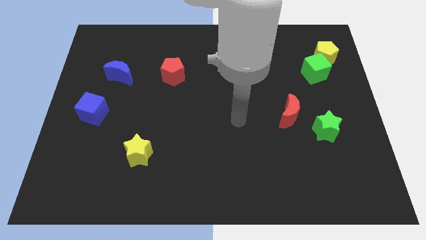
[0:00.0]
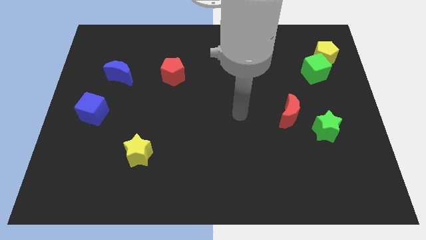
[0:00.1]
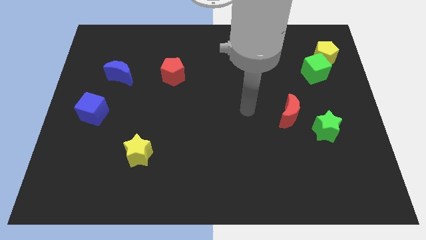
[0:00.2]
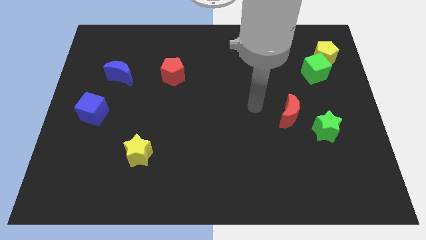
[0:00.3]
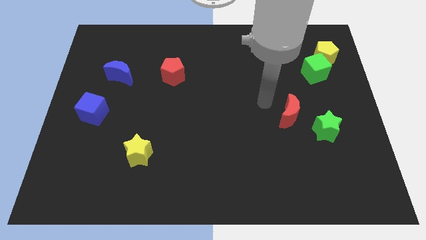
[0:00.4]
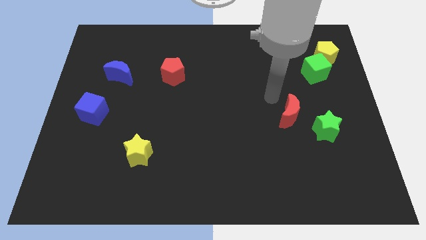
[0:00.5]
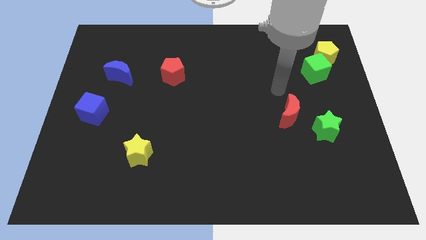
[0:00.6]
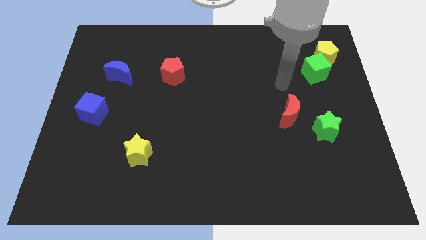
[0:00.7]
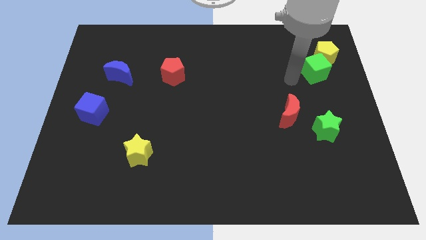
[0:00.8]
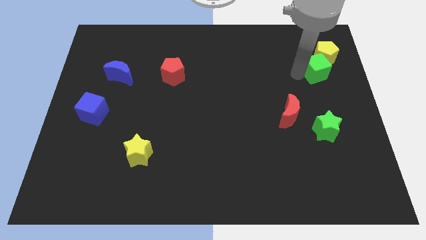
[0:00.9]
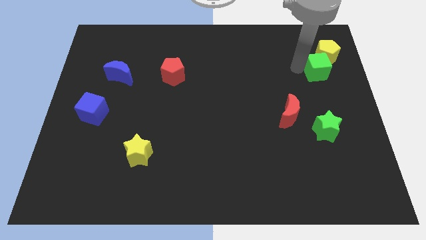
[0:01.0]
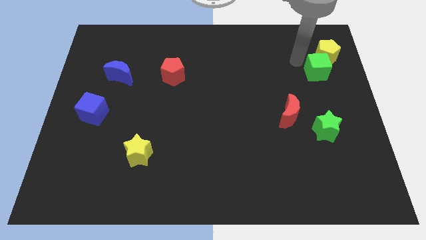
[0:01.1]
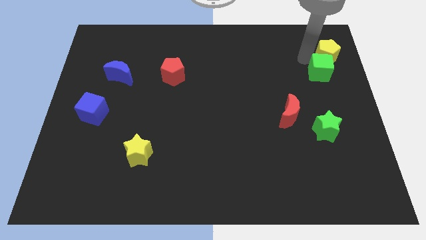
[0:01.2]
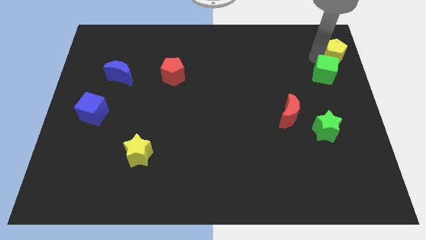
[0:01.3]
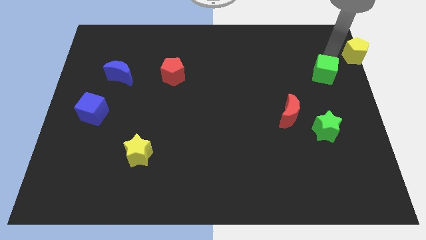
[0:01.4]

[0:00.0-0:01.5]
separate the green cube from the yellow pentagon

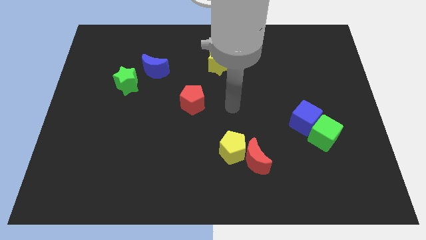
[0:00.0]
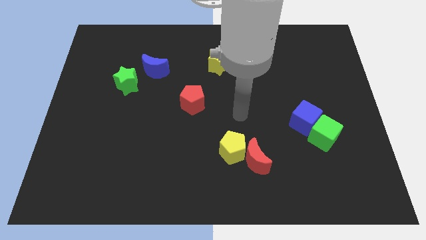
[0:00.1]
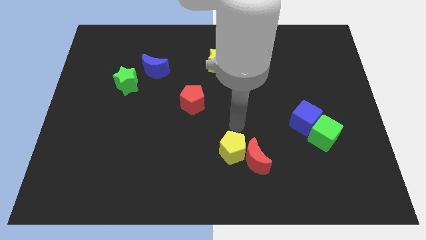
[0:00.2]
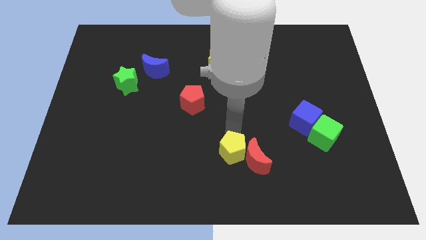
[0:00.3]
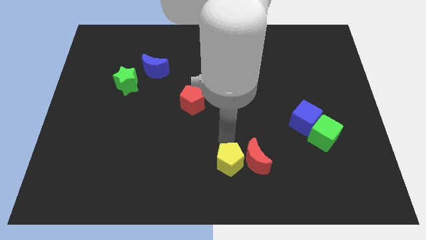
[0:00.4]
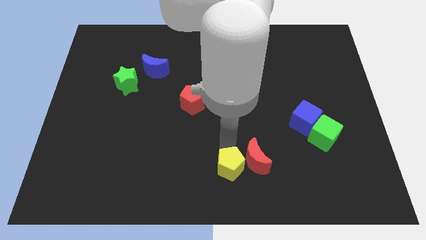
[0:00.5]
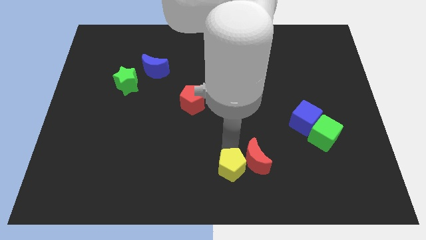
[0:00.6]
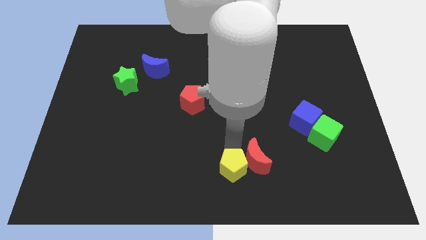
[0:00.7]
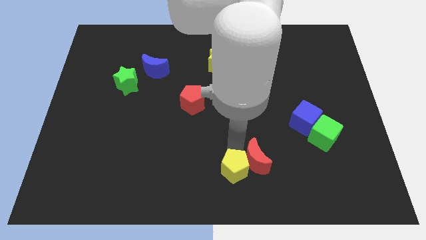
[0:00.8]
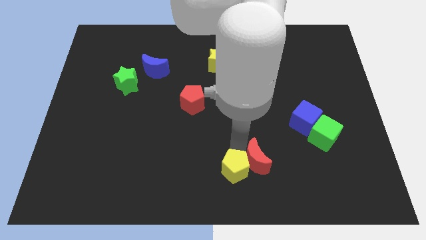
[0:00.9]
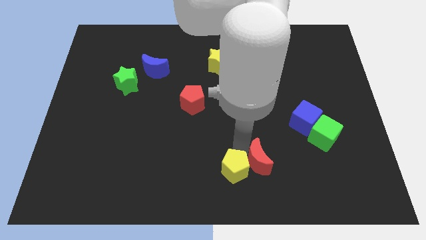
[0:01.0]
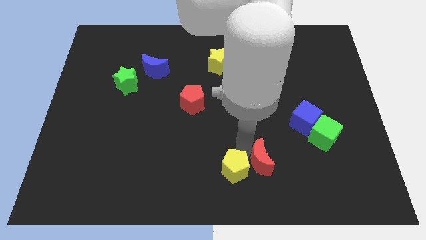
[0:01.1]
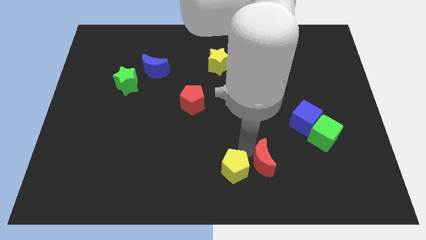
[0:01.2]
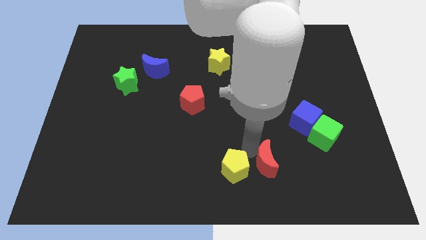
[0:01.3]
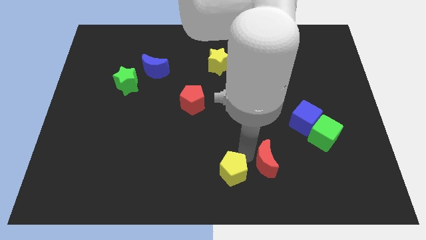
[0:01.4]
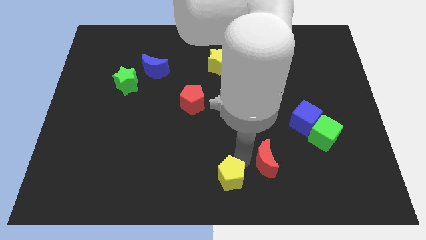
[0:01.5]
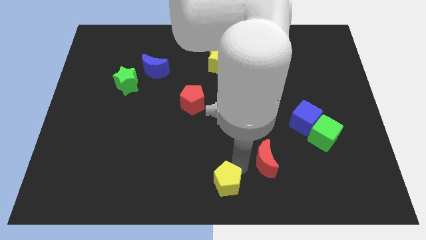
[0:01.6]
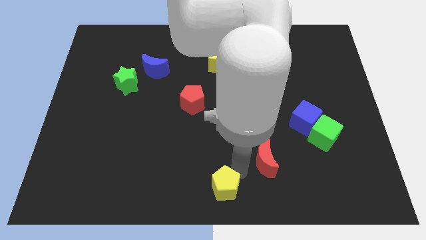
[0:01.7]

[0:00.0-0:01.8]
separate the red moon from the yellow pentagon

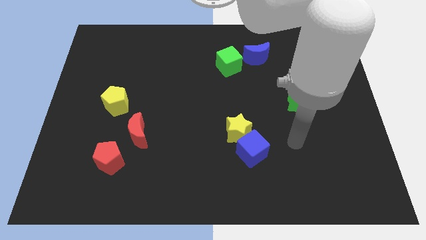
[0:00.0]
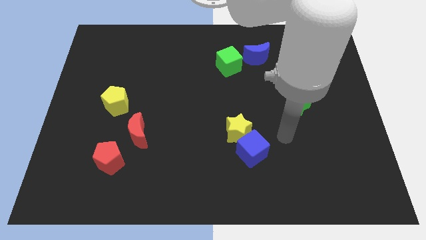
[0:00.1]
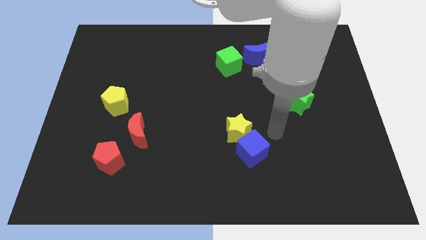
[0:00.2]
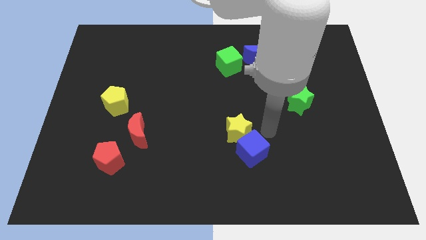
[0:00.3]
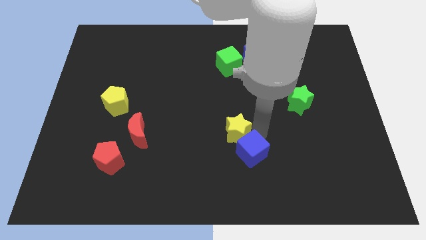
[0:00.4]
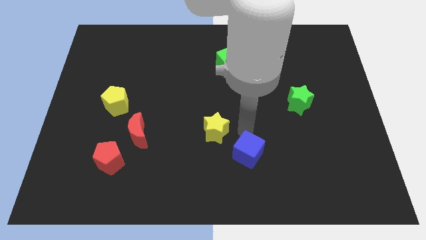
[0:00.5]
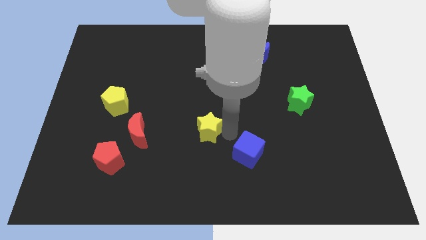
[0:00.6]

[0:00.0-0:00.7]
pull the blue cube apart from the yellow star

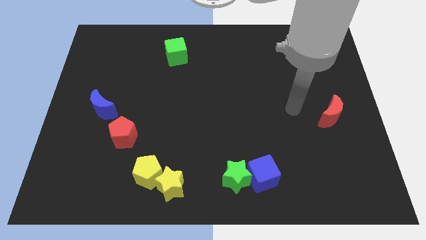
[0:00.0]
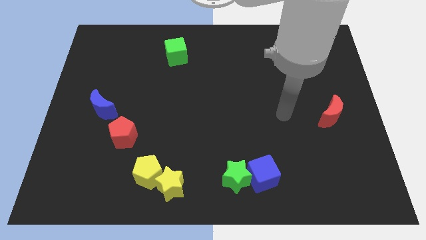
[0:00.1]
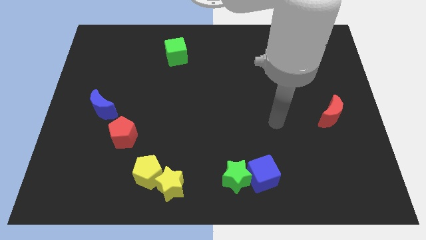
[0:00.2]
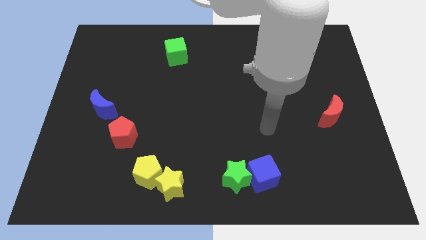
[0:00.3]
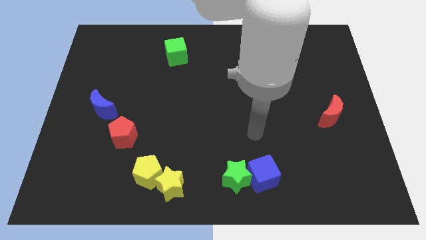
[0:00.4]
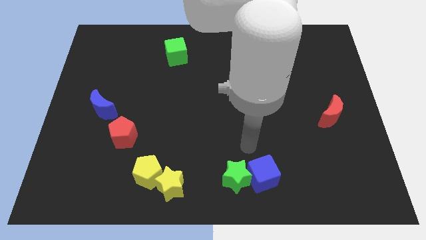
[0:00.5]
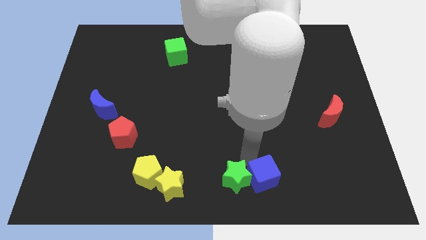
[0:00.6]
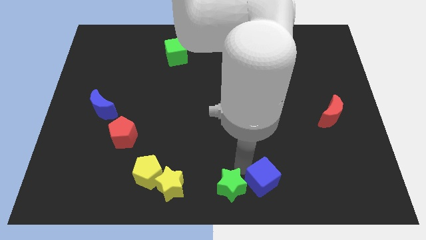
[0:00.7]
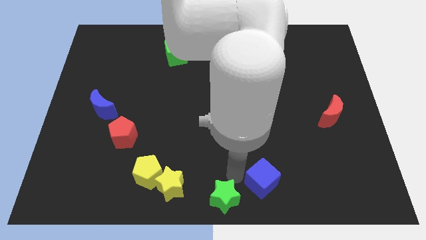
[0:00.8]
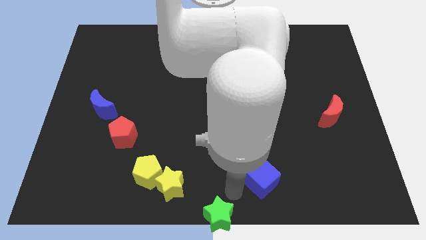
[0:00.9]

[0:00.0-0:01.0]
move the blue cube away from the green star

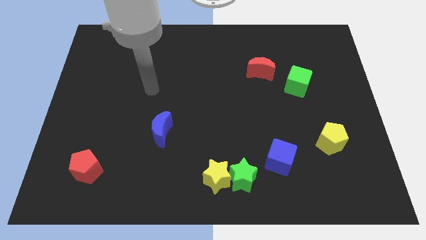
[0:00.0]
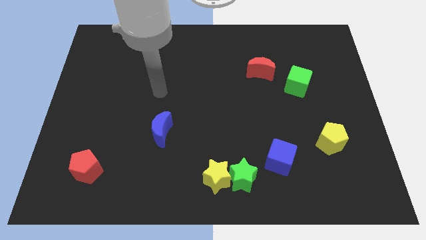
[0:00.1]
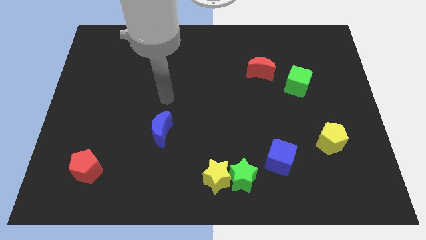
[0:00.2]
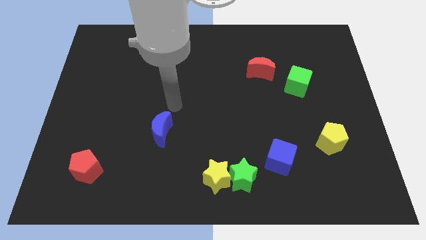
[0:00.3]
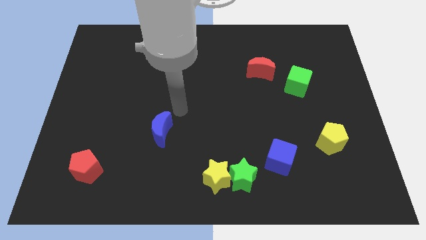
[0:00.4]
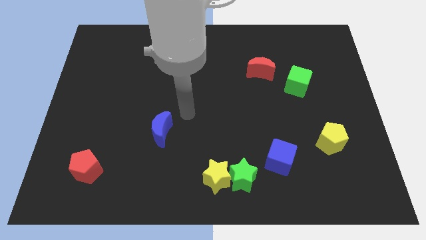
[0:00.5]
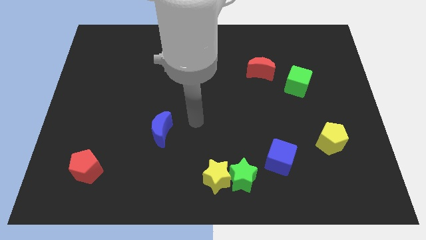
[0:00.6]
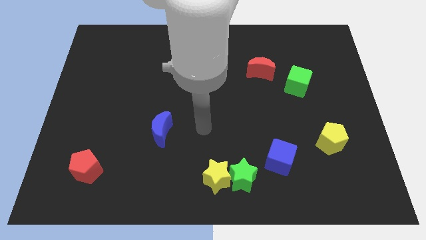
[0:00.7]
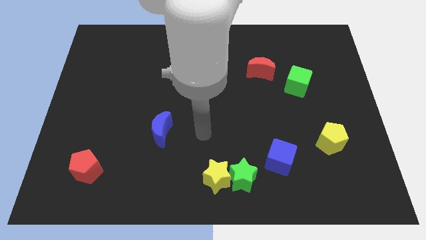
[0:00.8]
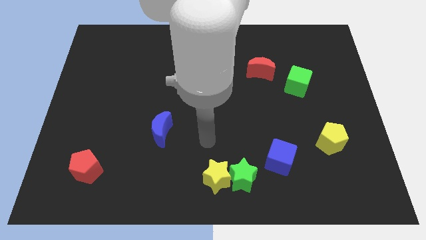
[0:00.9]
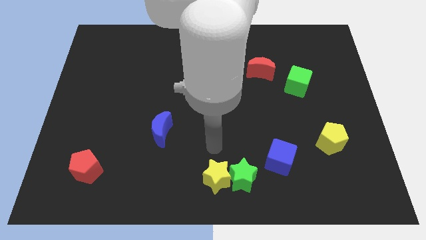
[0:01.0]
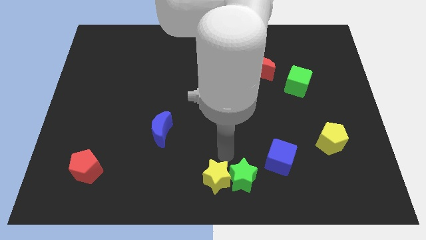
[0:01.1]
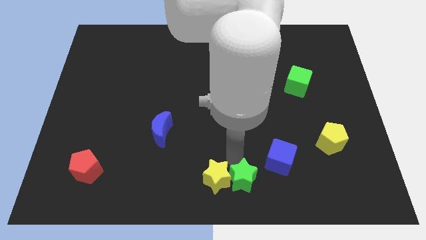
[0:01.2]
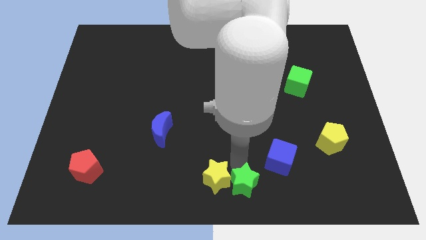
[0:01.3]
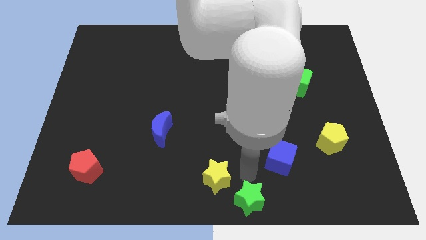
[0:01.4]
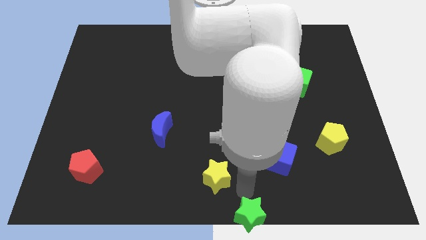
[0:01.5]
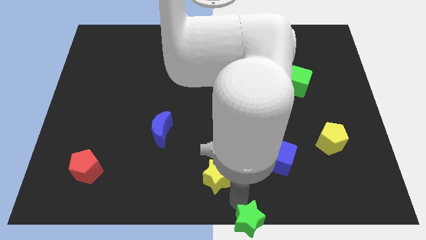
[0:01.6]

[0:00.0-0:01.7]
move the yellow star away from the green star

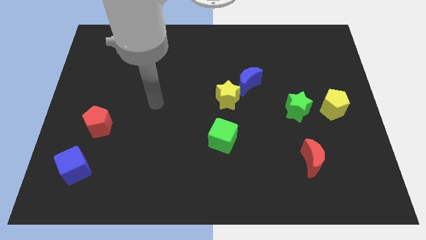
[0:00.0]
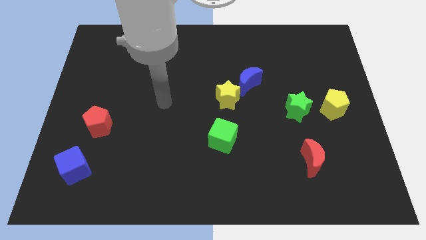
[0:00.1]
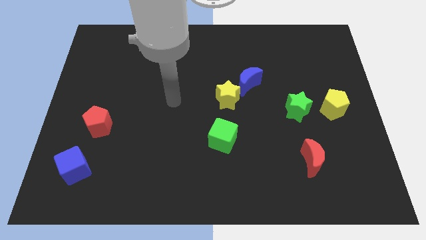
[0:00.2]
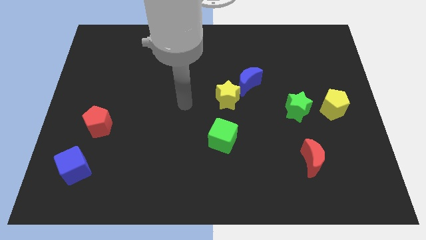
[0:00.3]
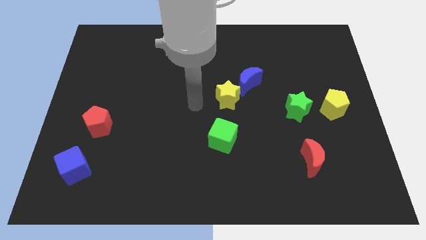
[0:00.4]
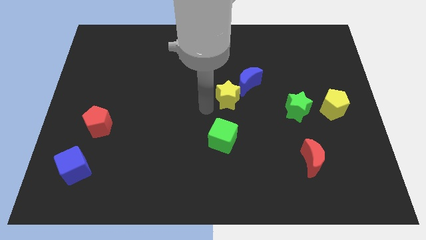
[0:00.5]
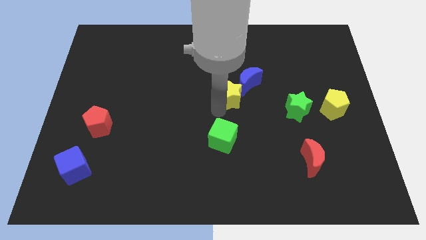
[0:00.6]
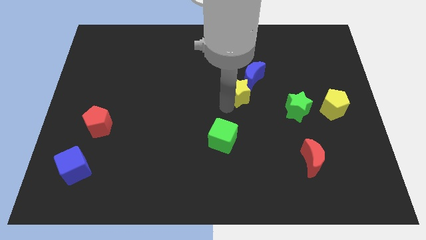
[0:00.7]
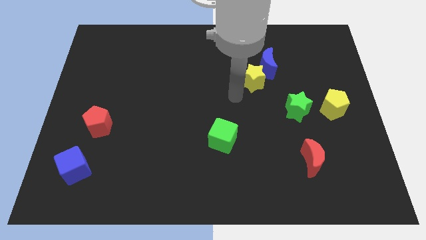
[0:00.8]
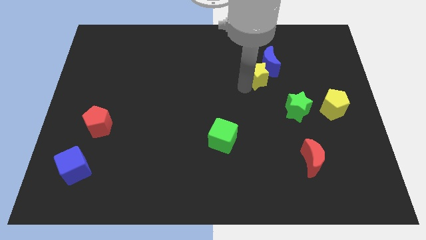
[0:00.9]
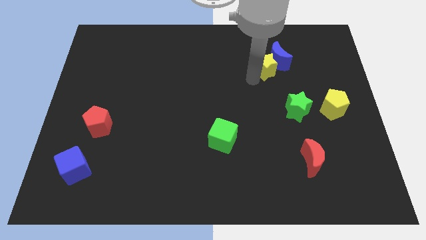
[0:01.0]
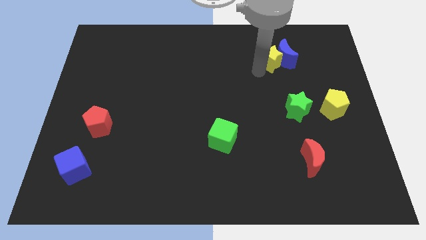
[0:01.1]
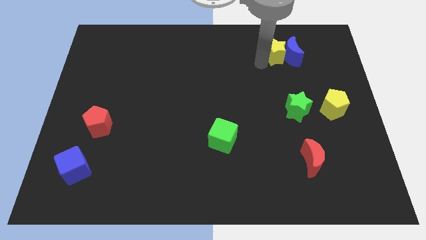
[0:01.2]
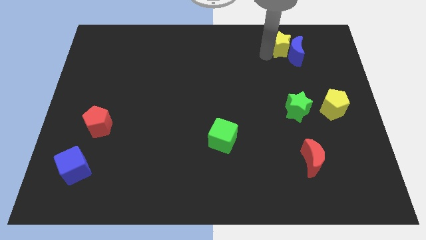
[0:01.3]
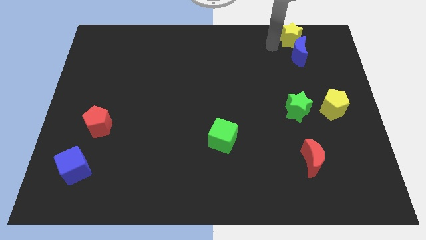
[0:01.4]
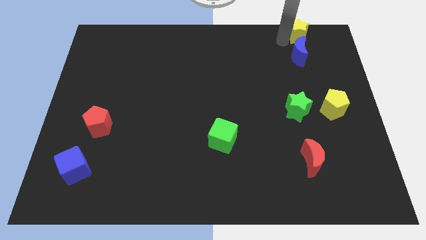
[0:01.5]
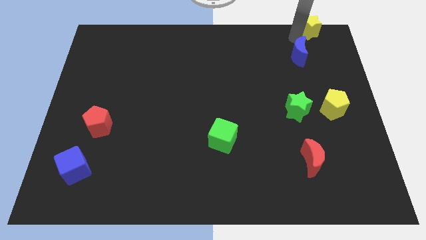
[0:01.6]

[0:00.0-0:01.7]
pull the blue moon apart from the yellow star

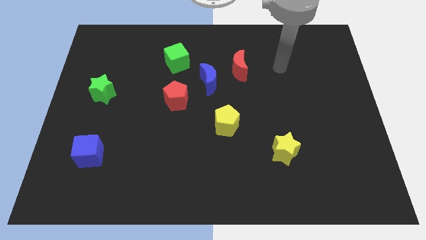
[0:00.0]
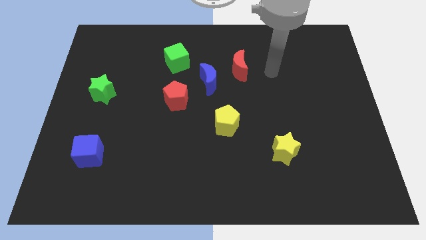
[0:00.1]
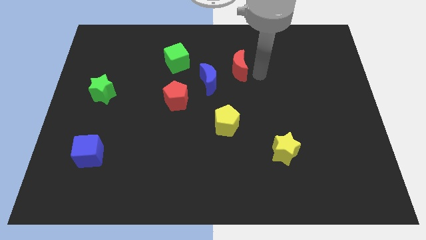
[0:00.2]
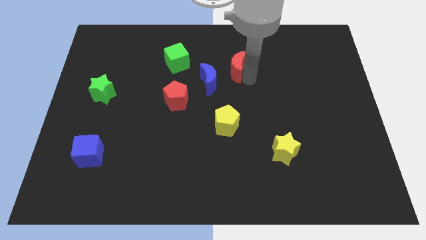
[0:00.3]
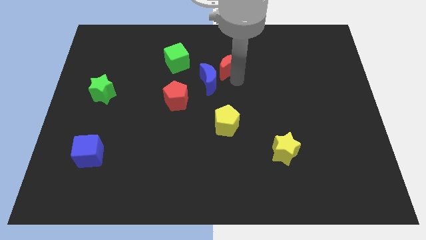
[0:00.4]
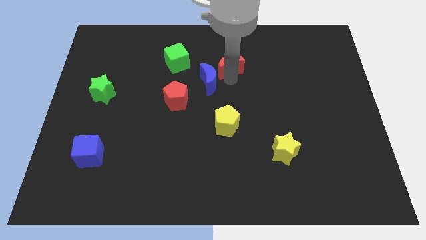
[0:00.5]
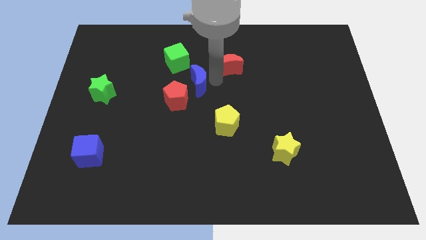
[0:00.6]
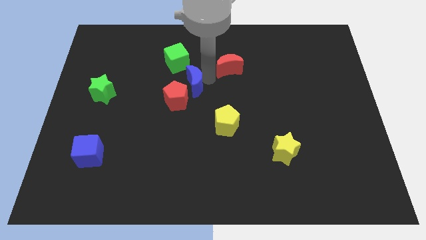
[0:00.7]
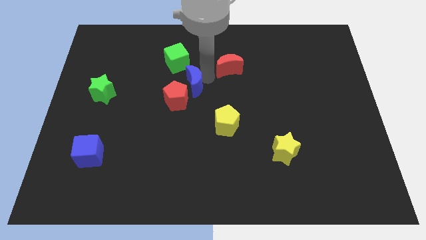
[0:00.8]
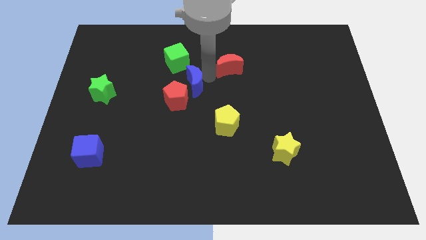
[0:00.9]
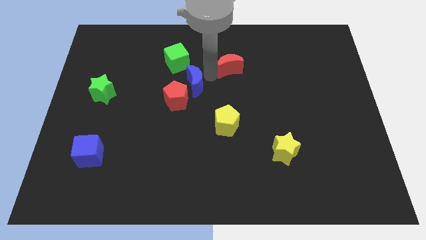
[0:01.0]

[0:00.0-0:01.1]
pull the red moon apart from the blue moon
